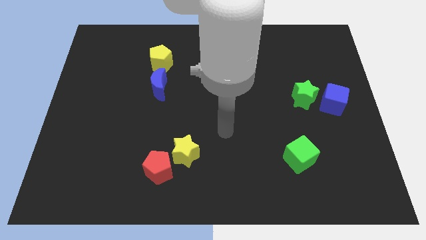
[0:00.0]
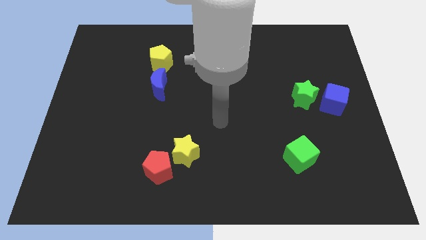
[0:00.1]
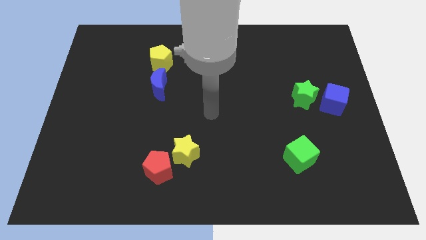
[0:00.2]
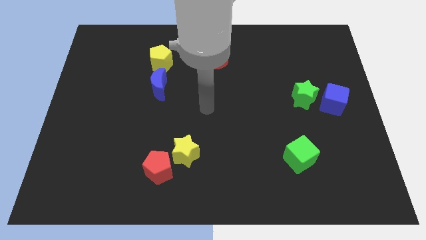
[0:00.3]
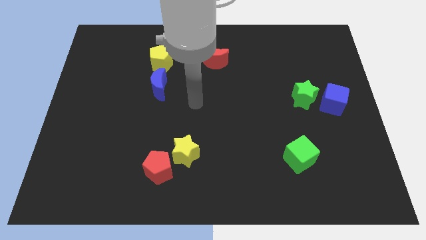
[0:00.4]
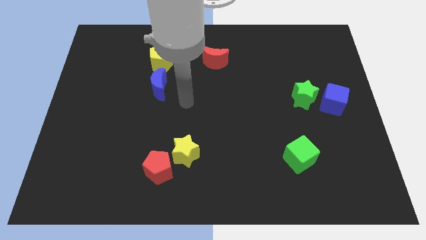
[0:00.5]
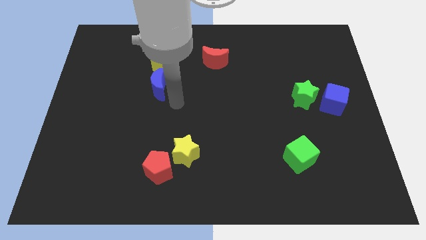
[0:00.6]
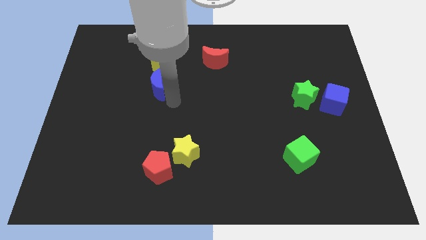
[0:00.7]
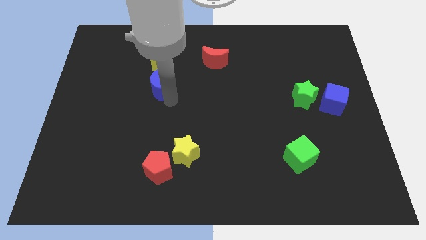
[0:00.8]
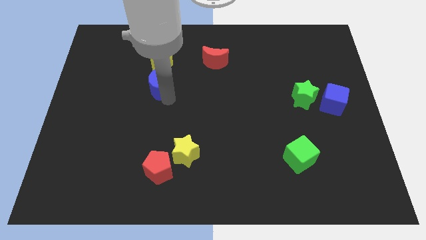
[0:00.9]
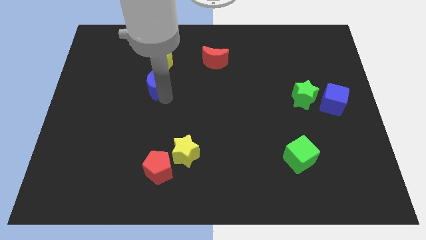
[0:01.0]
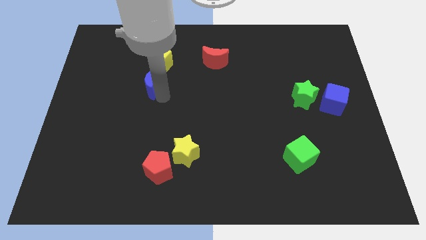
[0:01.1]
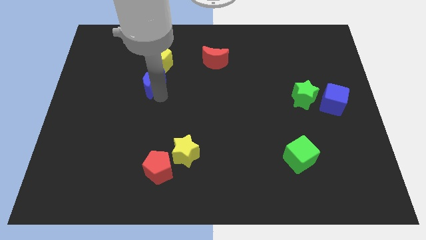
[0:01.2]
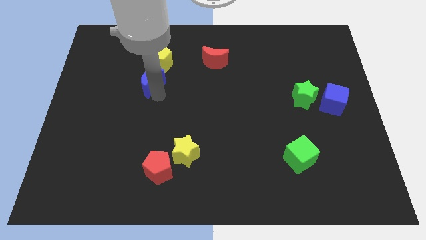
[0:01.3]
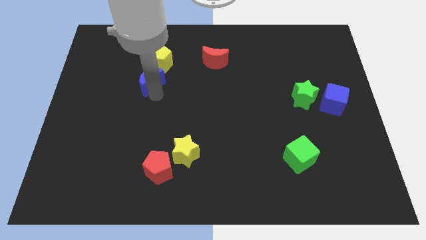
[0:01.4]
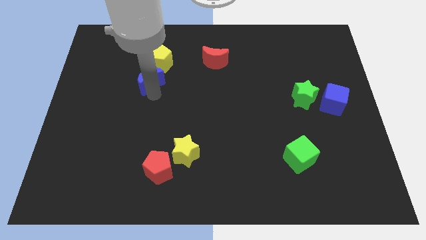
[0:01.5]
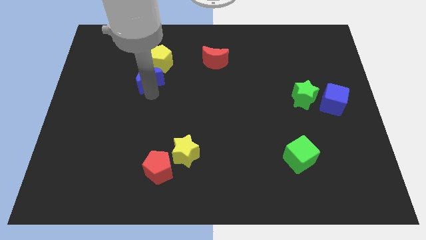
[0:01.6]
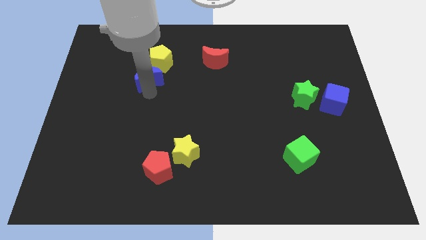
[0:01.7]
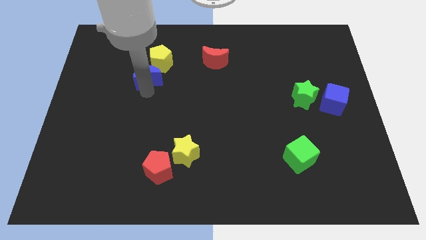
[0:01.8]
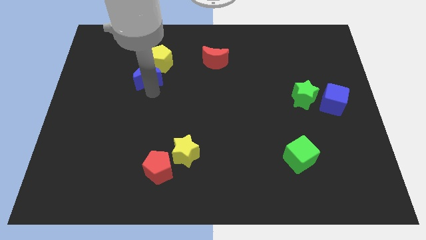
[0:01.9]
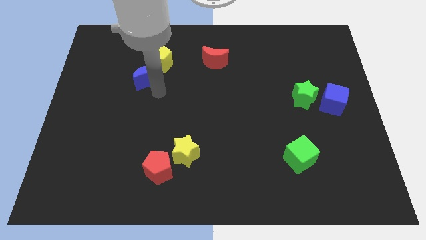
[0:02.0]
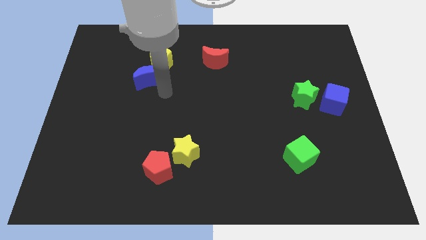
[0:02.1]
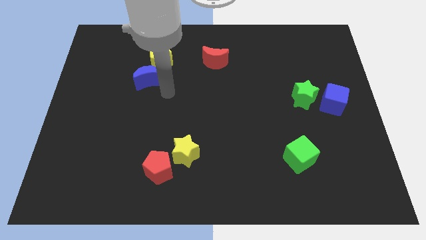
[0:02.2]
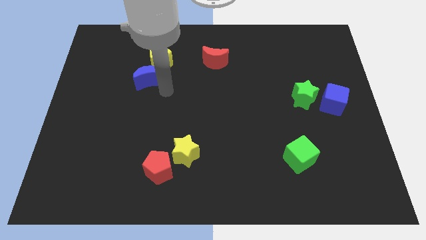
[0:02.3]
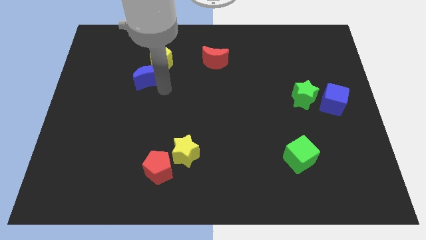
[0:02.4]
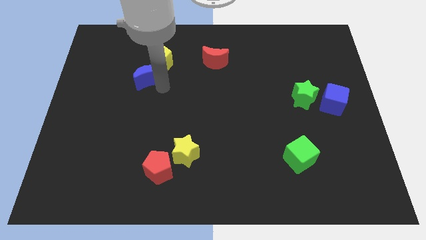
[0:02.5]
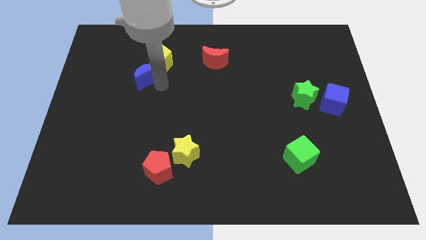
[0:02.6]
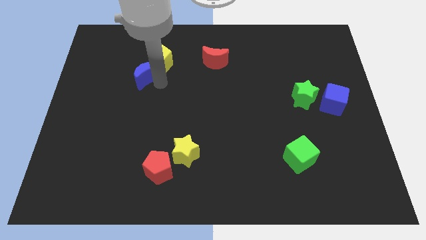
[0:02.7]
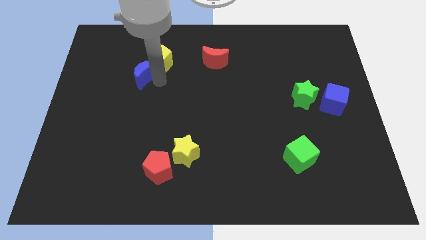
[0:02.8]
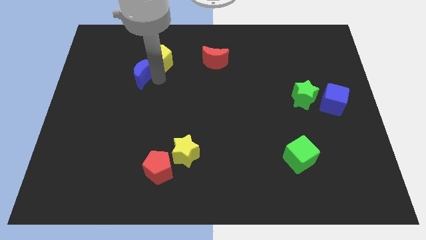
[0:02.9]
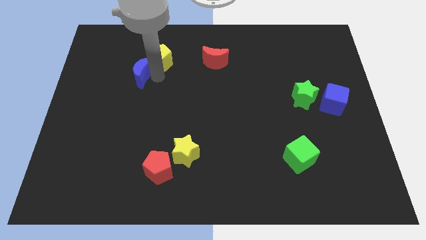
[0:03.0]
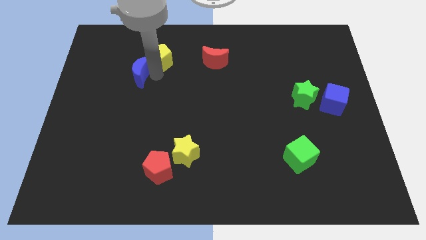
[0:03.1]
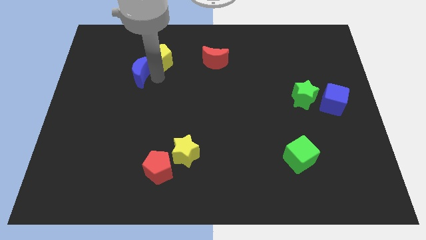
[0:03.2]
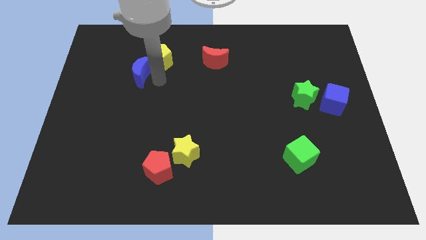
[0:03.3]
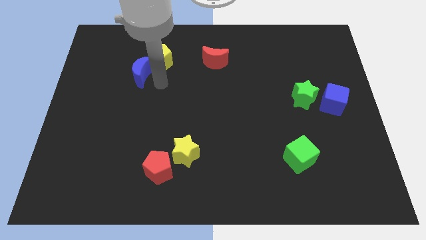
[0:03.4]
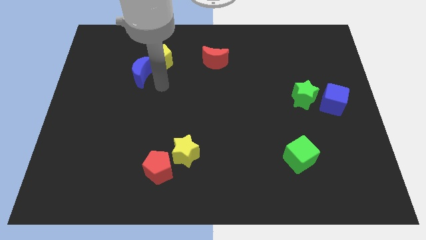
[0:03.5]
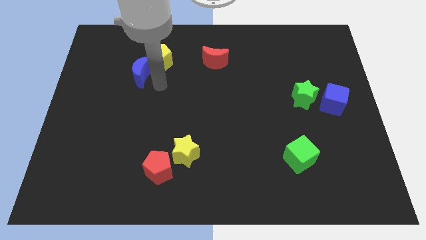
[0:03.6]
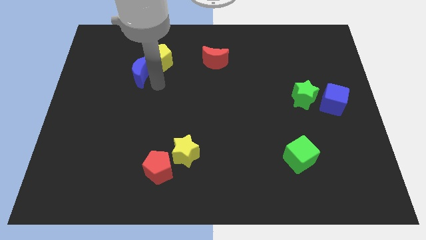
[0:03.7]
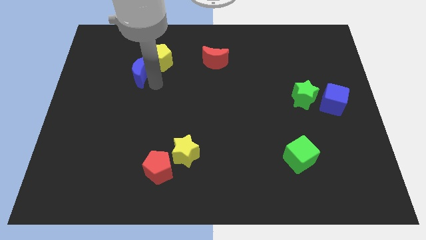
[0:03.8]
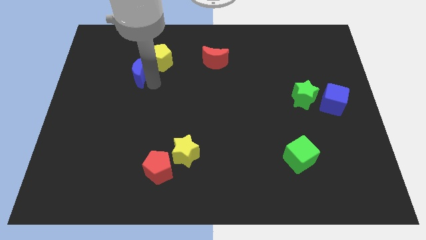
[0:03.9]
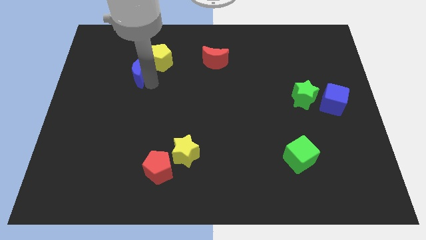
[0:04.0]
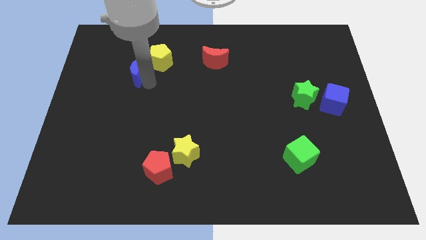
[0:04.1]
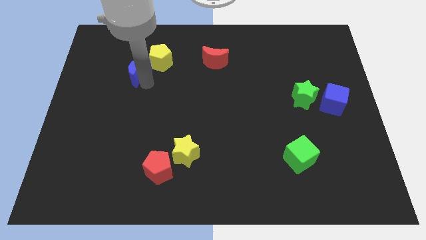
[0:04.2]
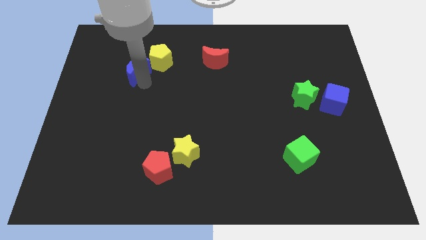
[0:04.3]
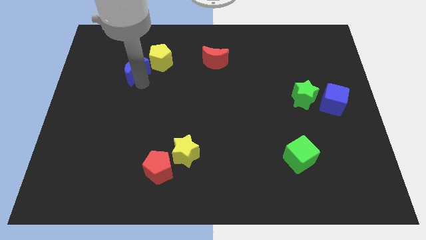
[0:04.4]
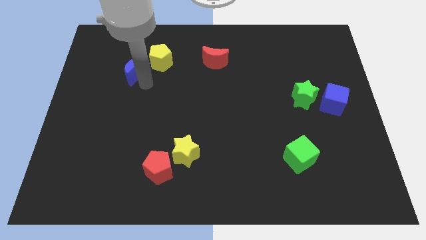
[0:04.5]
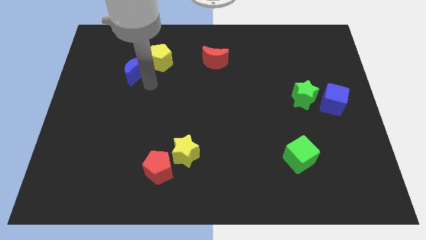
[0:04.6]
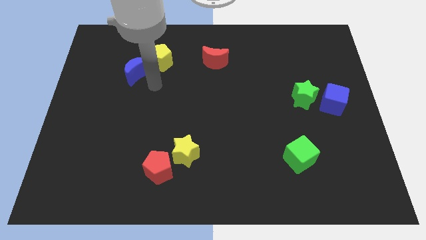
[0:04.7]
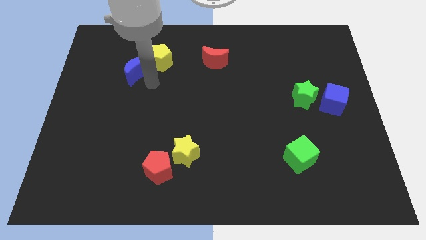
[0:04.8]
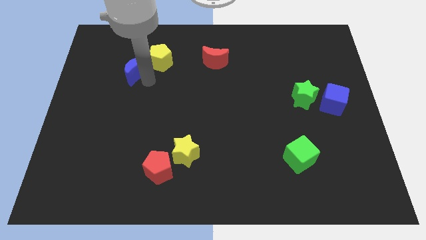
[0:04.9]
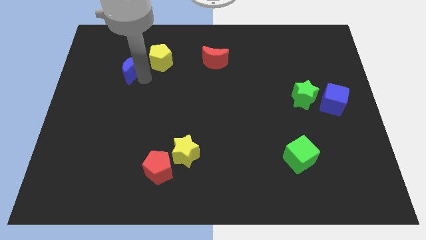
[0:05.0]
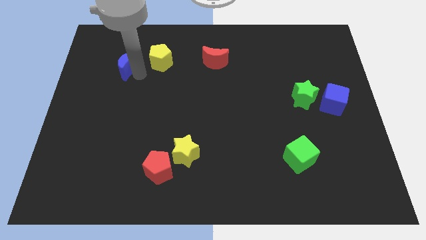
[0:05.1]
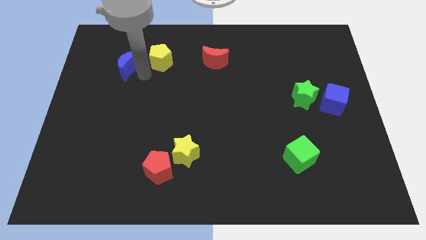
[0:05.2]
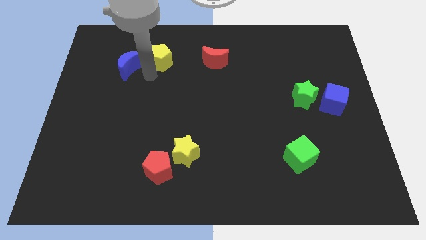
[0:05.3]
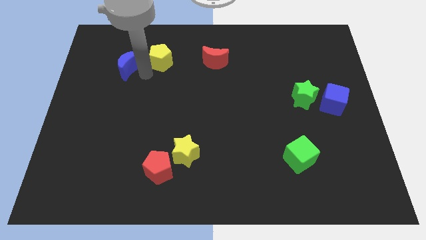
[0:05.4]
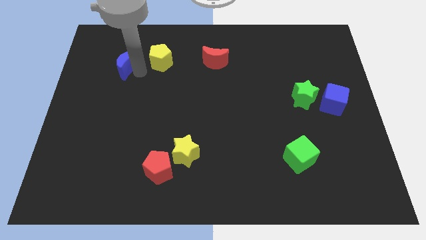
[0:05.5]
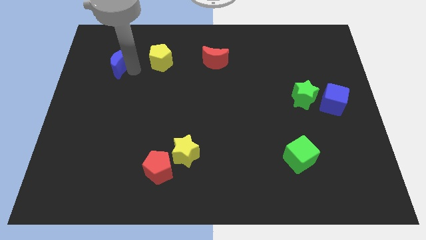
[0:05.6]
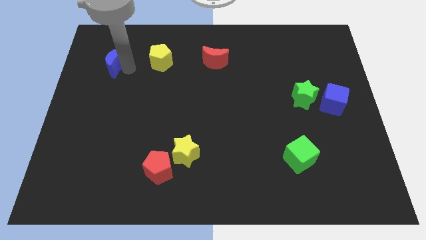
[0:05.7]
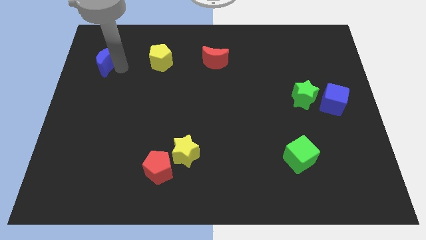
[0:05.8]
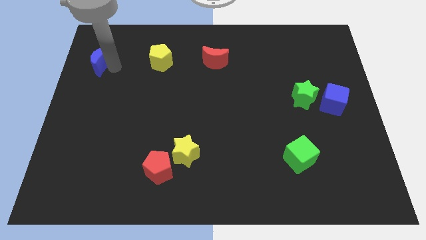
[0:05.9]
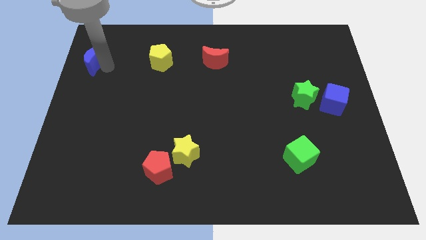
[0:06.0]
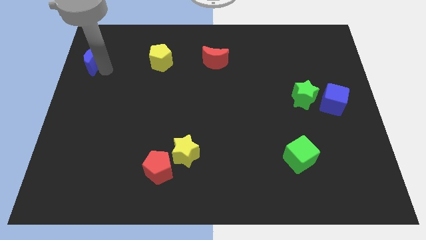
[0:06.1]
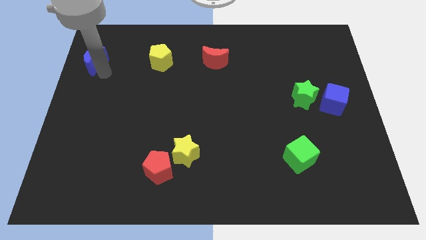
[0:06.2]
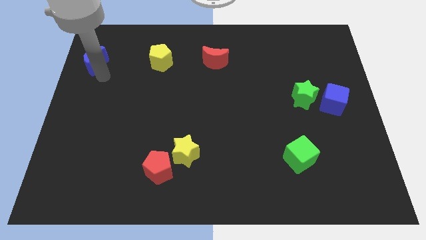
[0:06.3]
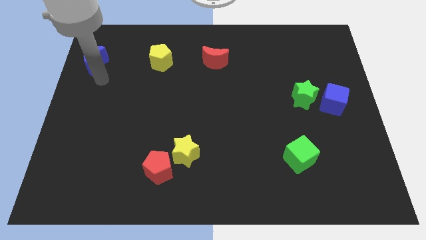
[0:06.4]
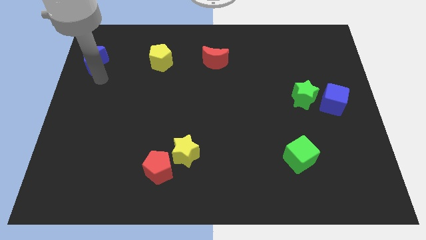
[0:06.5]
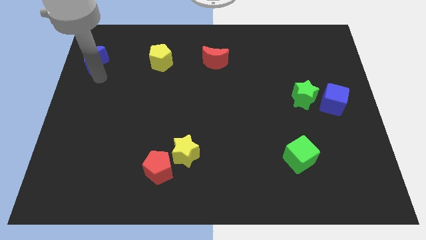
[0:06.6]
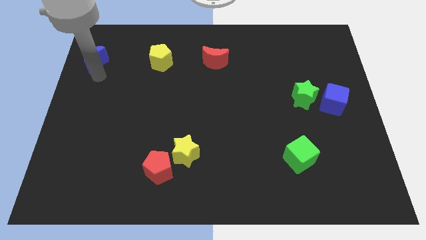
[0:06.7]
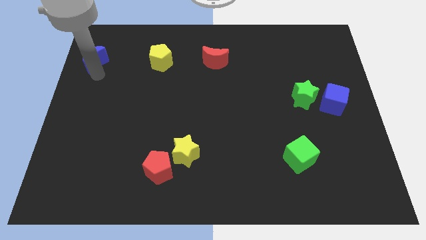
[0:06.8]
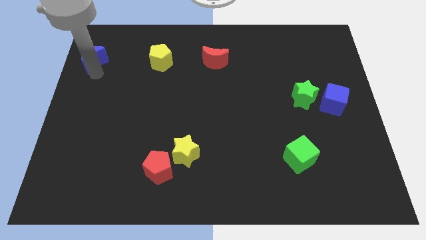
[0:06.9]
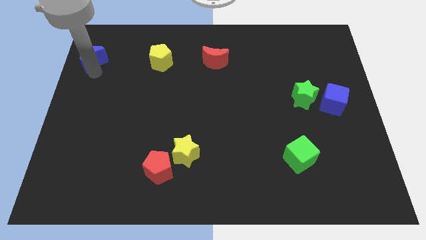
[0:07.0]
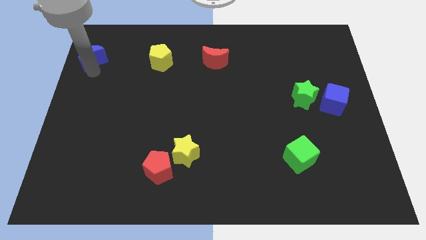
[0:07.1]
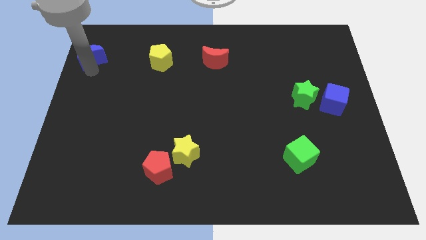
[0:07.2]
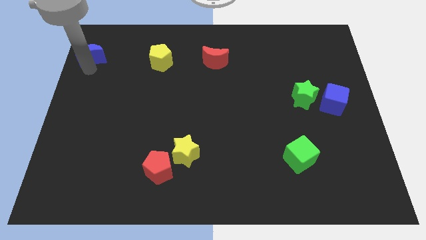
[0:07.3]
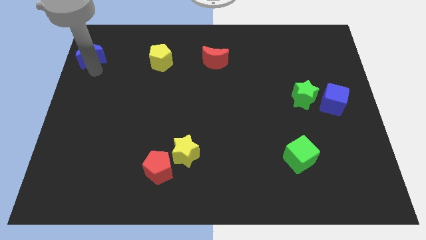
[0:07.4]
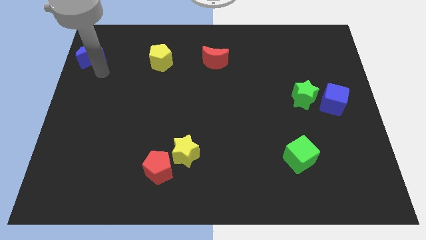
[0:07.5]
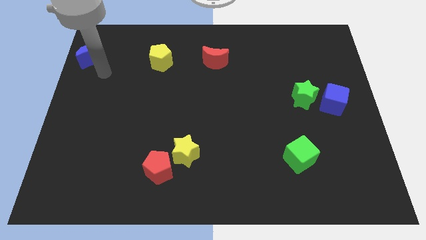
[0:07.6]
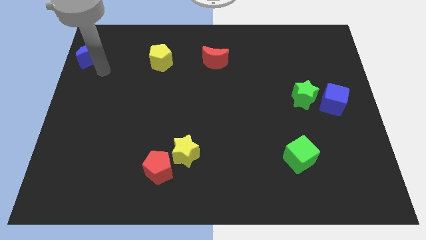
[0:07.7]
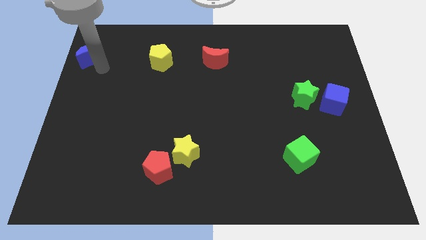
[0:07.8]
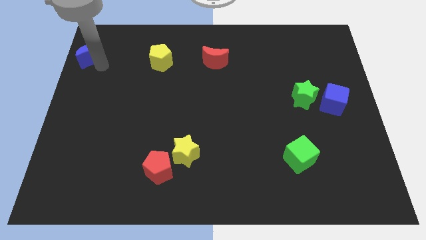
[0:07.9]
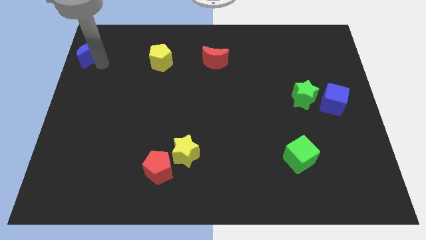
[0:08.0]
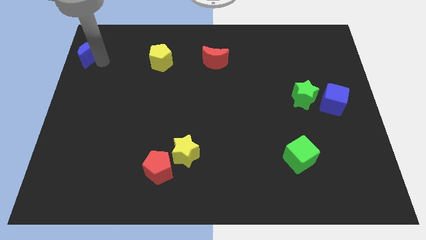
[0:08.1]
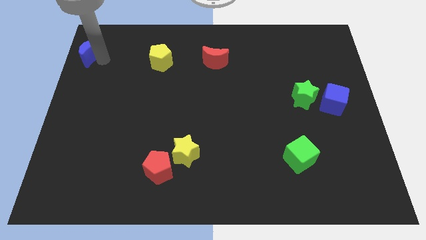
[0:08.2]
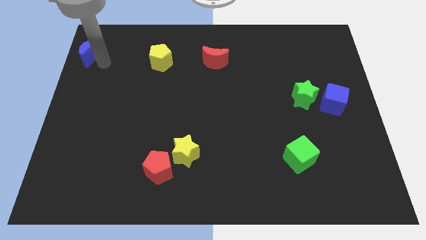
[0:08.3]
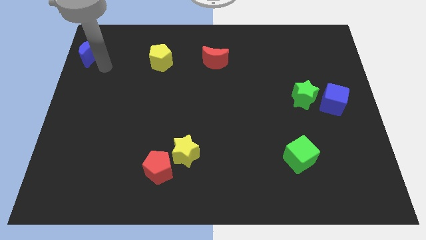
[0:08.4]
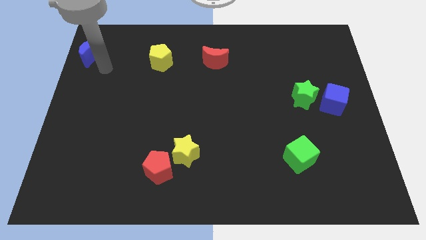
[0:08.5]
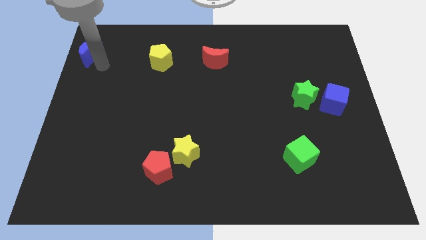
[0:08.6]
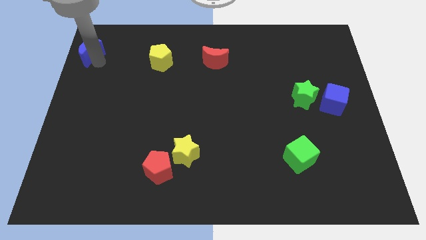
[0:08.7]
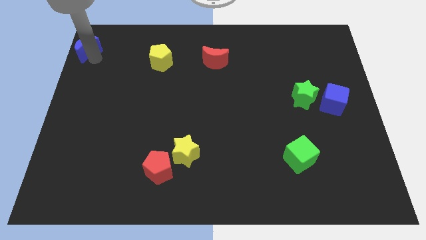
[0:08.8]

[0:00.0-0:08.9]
slide the blue moon to the top left
